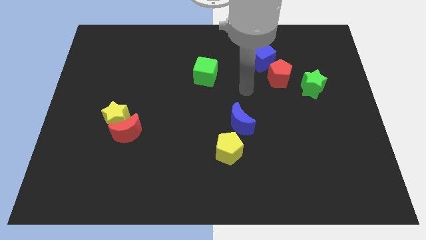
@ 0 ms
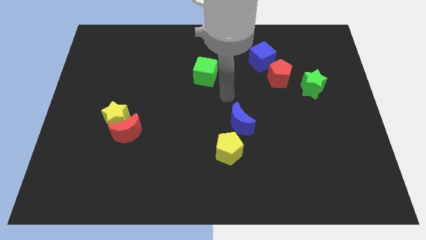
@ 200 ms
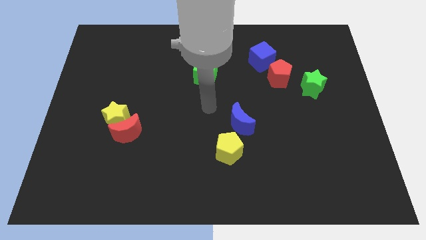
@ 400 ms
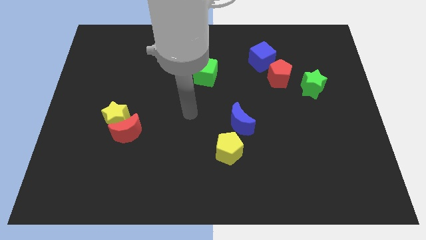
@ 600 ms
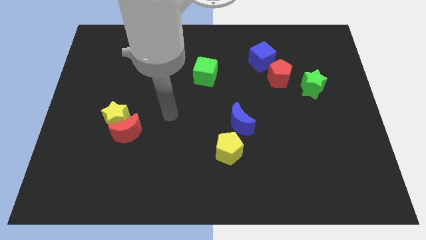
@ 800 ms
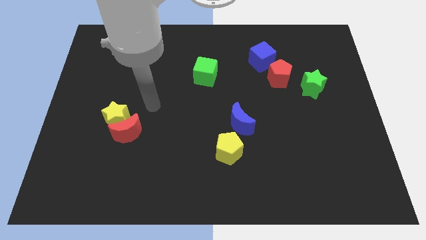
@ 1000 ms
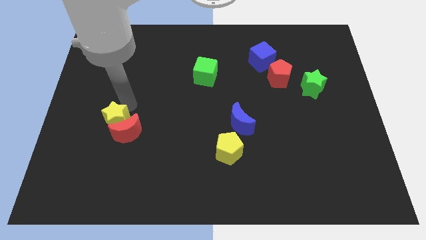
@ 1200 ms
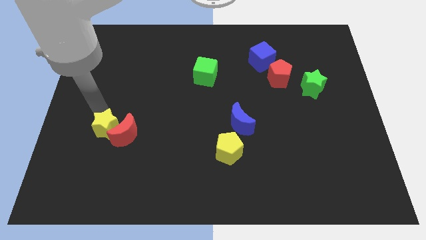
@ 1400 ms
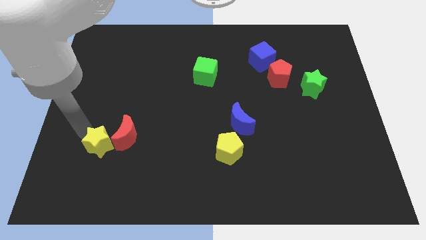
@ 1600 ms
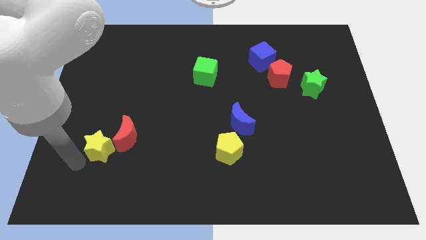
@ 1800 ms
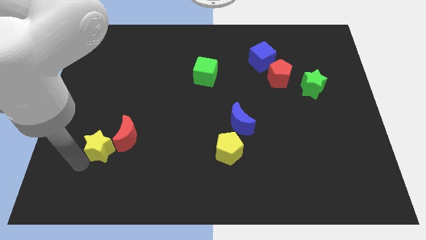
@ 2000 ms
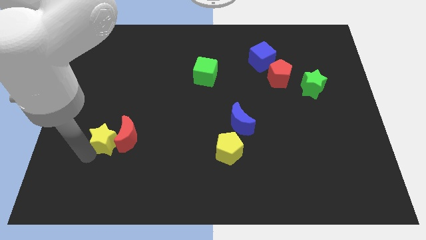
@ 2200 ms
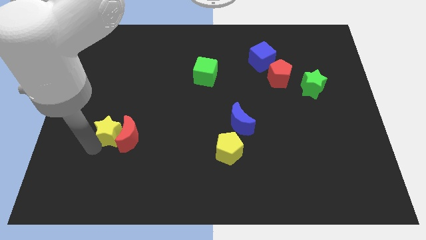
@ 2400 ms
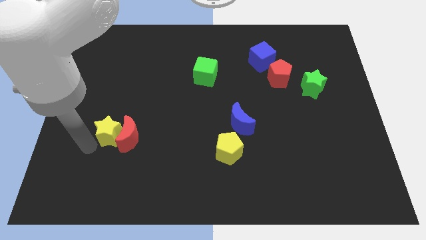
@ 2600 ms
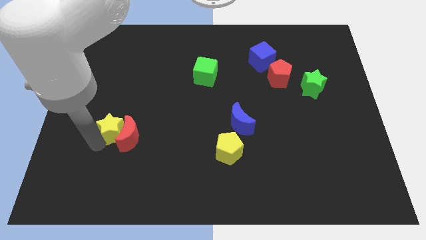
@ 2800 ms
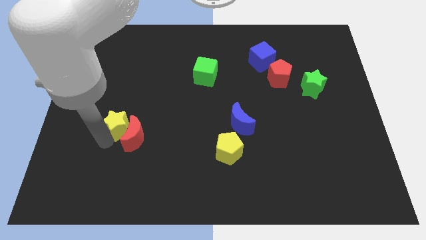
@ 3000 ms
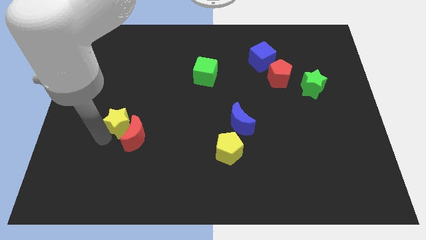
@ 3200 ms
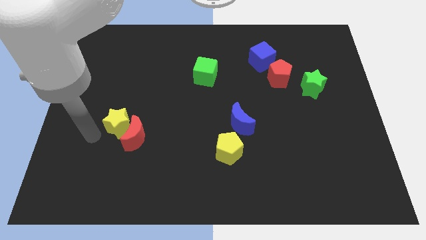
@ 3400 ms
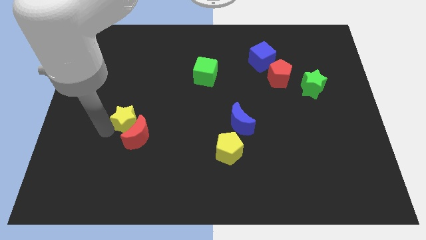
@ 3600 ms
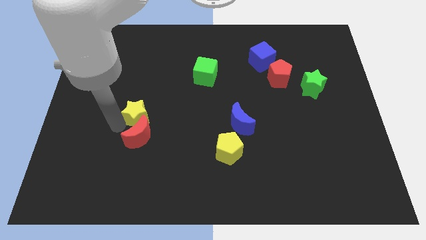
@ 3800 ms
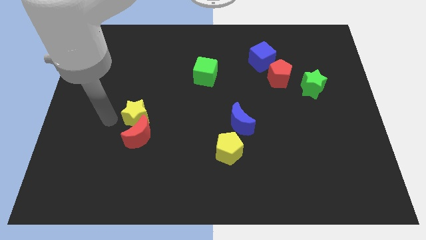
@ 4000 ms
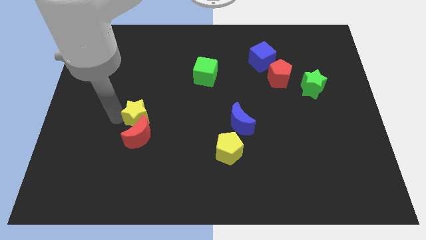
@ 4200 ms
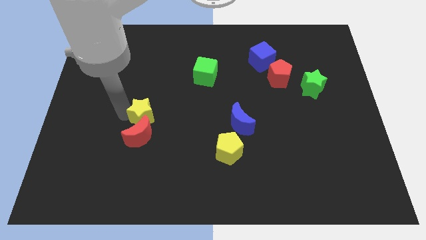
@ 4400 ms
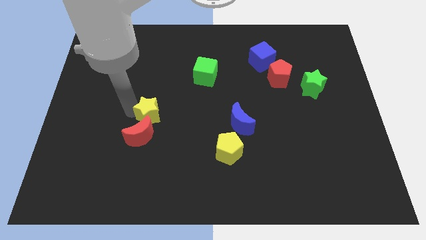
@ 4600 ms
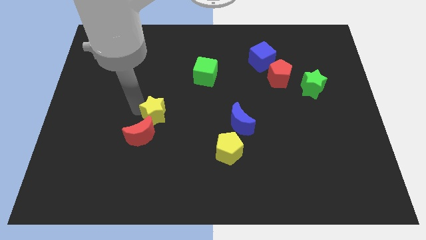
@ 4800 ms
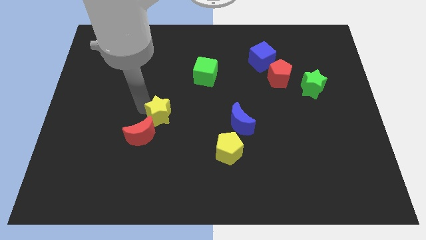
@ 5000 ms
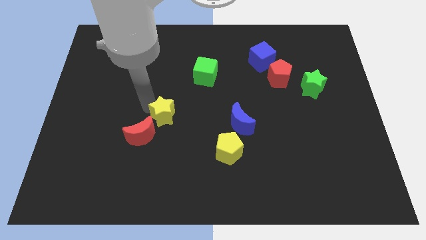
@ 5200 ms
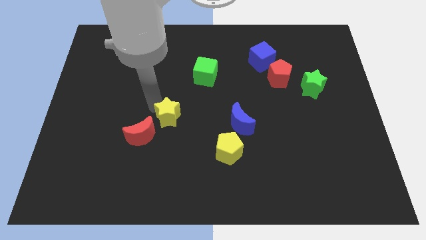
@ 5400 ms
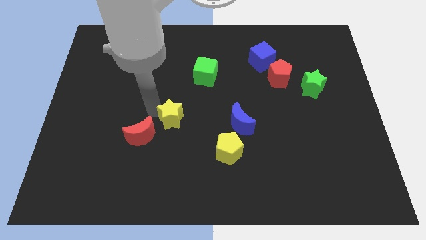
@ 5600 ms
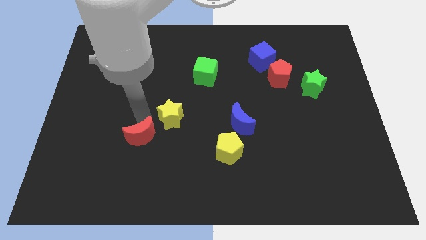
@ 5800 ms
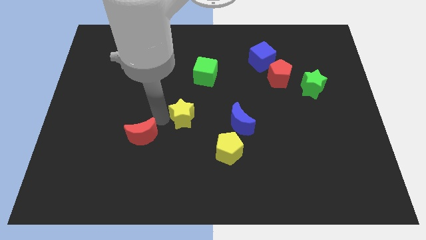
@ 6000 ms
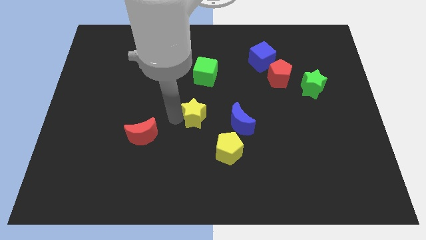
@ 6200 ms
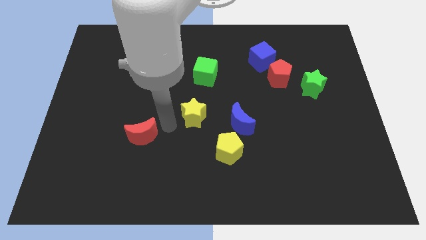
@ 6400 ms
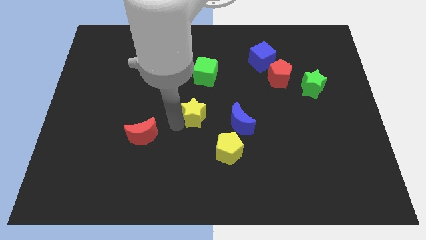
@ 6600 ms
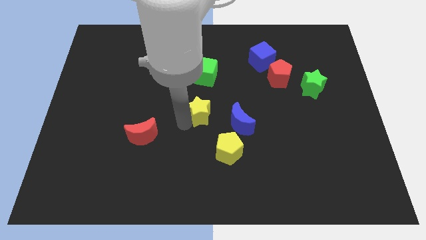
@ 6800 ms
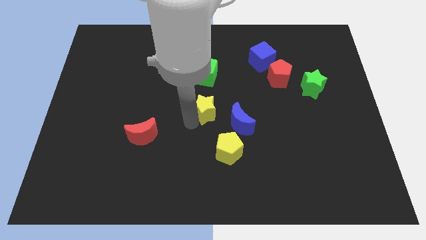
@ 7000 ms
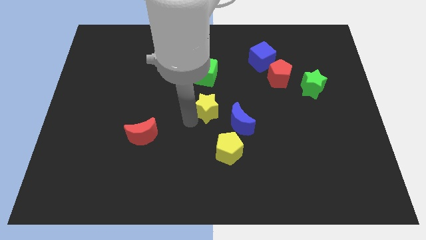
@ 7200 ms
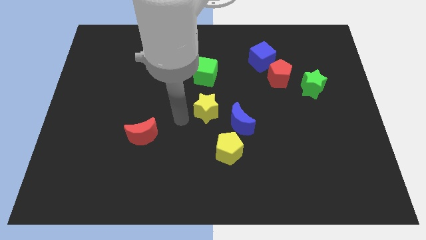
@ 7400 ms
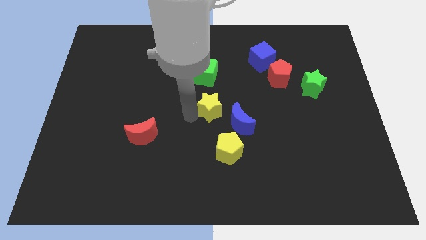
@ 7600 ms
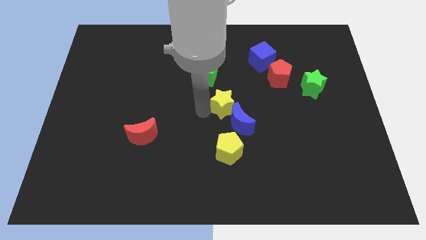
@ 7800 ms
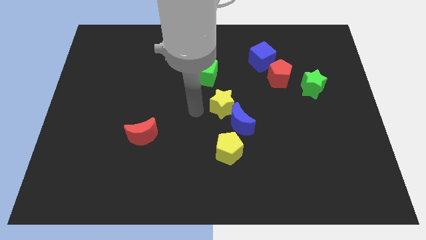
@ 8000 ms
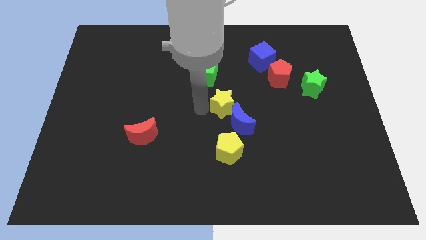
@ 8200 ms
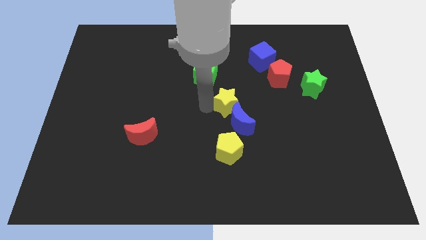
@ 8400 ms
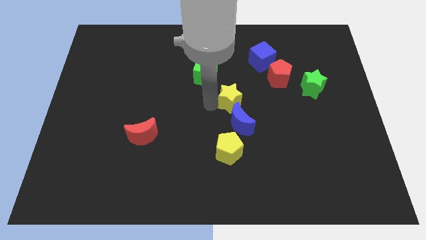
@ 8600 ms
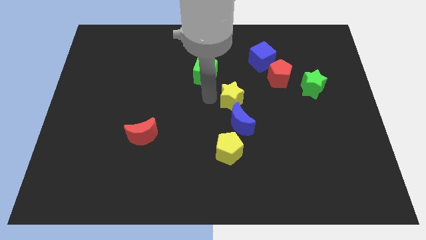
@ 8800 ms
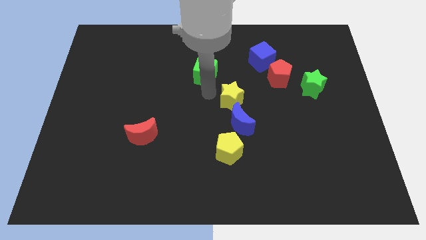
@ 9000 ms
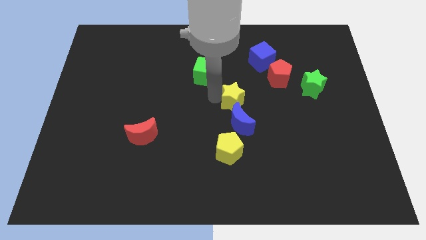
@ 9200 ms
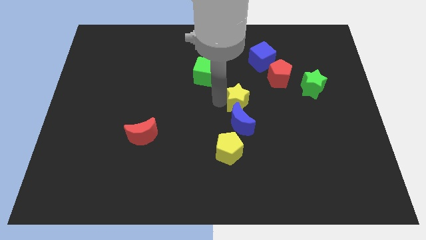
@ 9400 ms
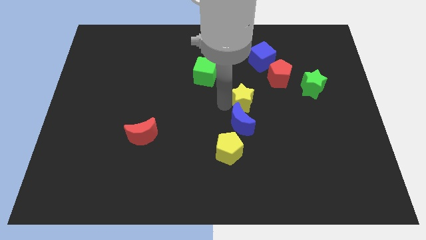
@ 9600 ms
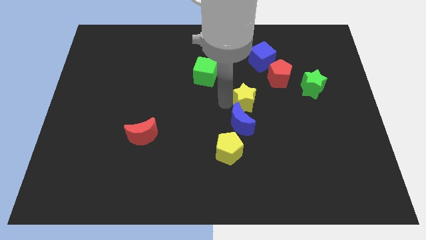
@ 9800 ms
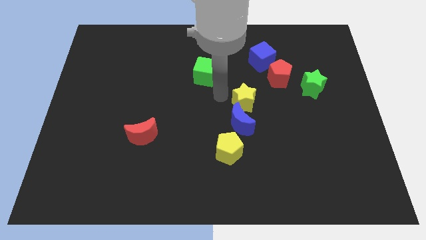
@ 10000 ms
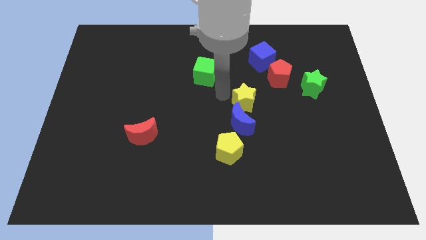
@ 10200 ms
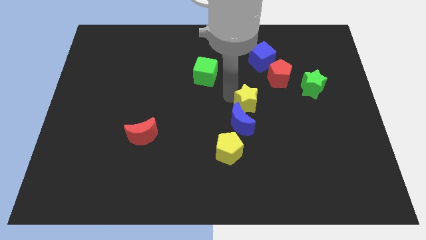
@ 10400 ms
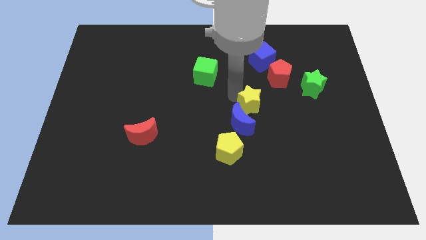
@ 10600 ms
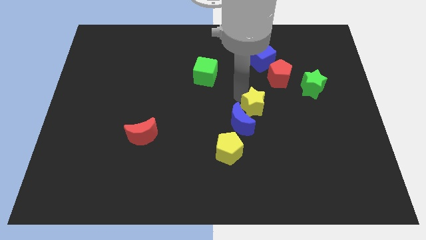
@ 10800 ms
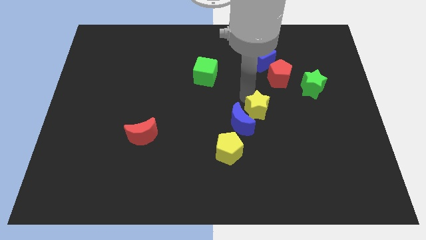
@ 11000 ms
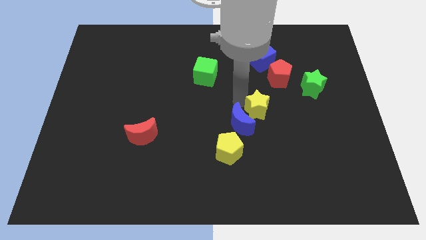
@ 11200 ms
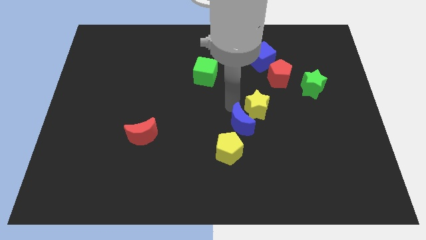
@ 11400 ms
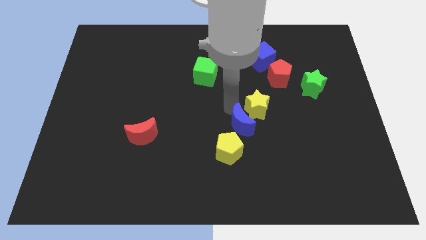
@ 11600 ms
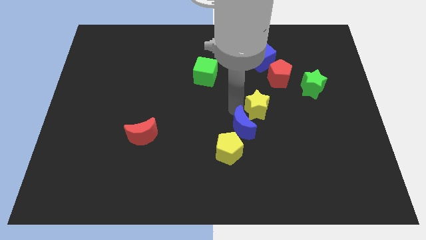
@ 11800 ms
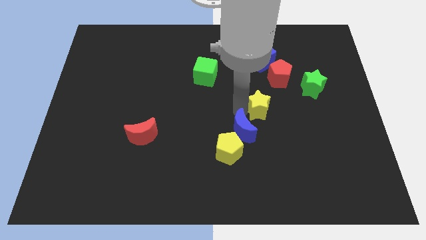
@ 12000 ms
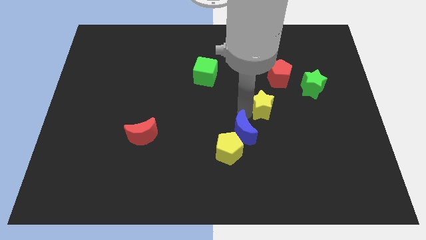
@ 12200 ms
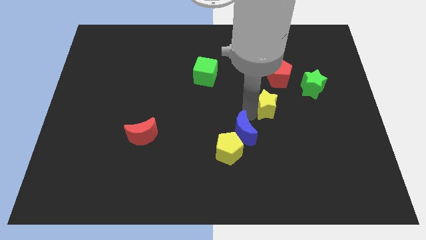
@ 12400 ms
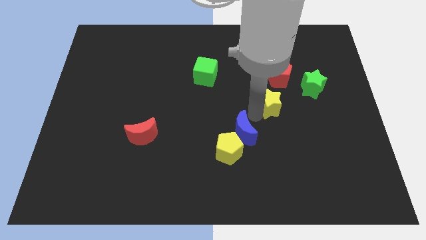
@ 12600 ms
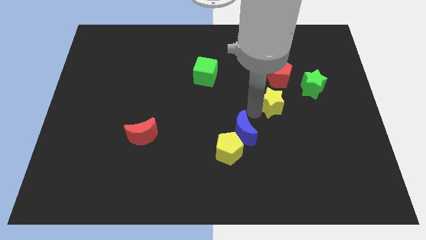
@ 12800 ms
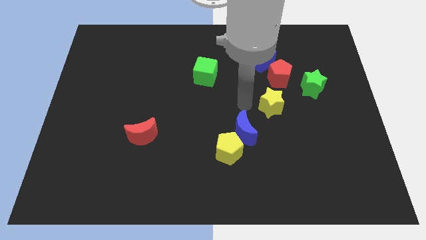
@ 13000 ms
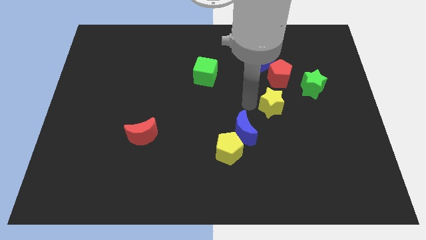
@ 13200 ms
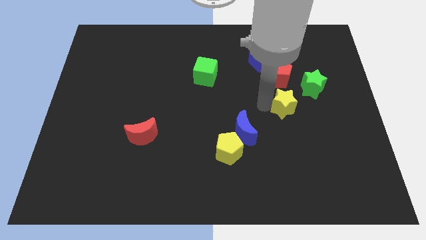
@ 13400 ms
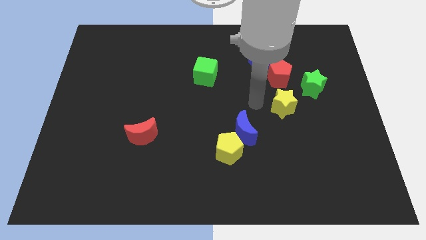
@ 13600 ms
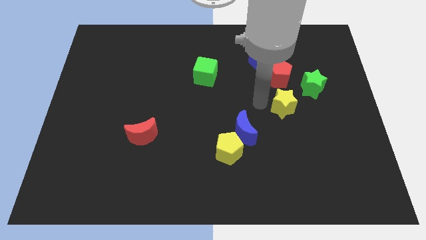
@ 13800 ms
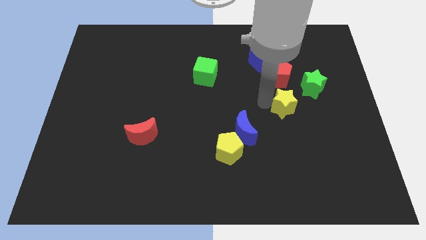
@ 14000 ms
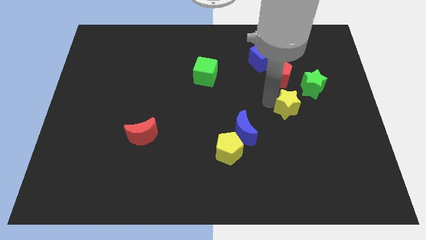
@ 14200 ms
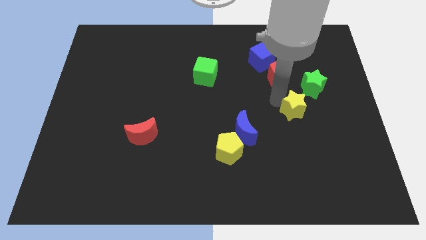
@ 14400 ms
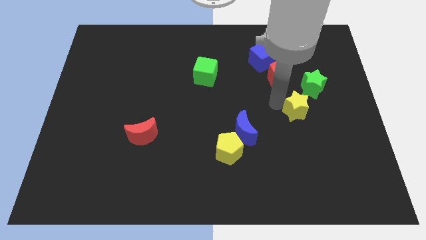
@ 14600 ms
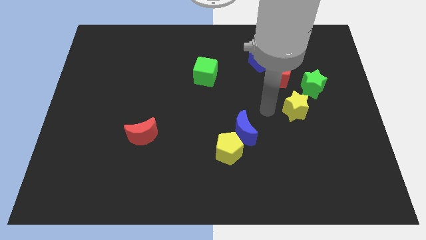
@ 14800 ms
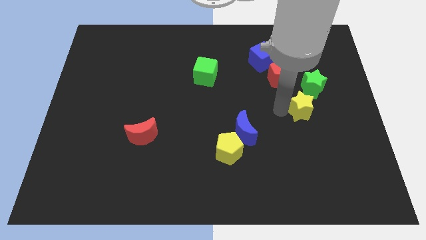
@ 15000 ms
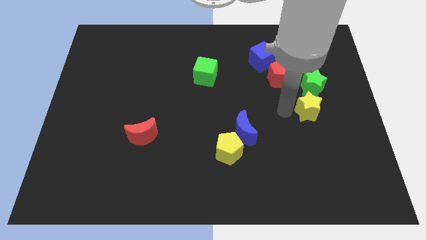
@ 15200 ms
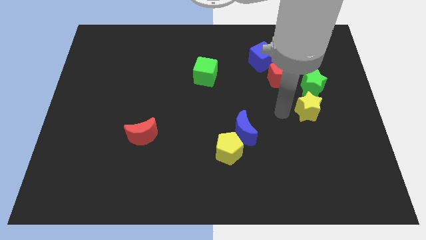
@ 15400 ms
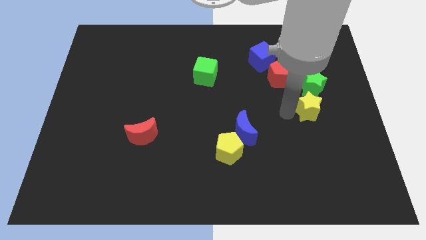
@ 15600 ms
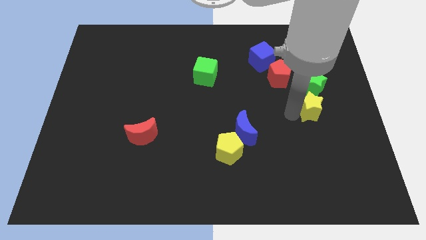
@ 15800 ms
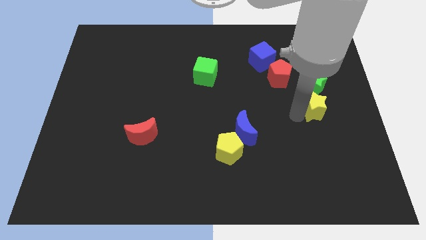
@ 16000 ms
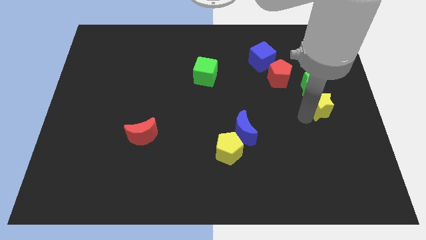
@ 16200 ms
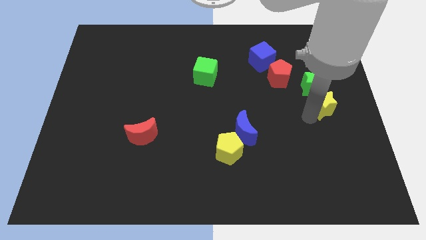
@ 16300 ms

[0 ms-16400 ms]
slide the yellow star to the right side
